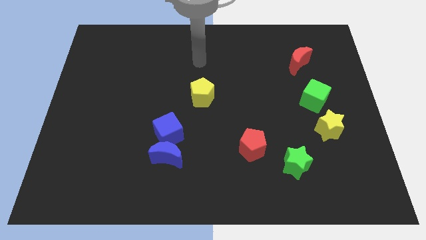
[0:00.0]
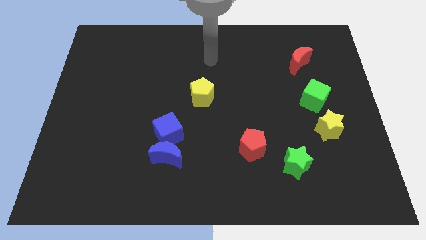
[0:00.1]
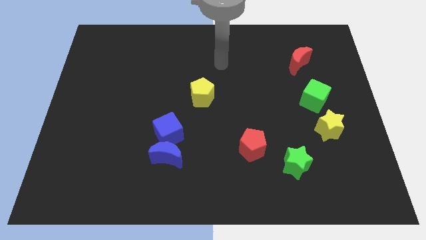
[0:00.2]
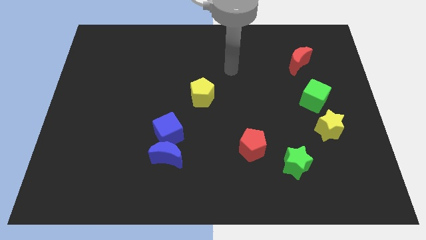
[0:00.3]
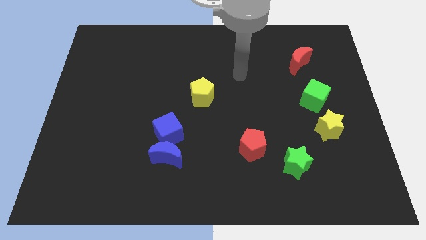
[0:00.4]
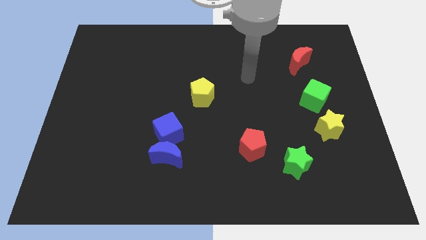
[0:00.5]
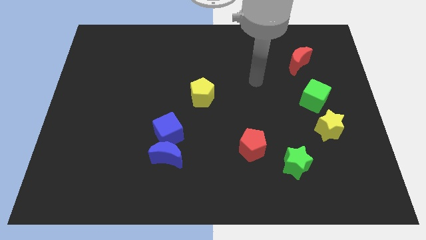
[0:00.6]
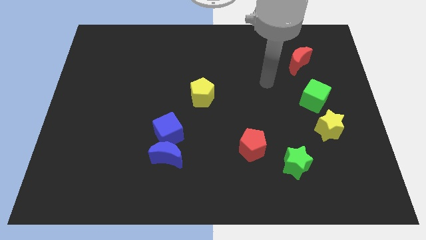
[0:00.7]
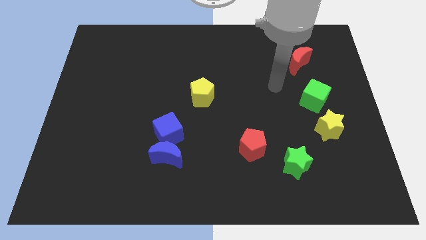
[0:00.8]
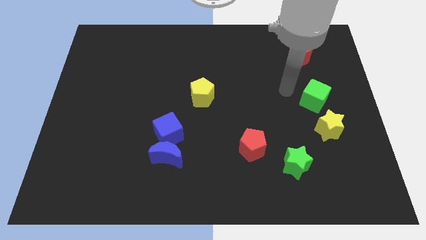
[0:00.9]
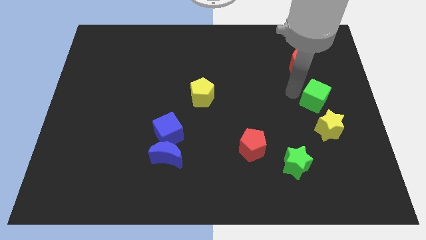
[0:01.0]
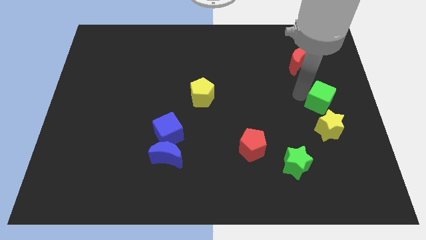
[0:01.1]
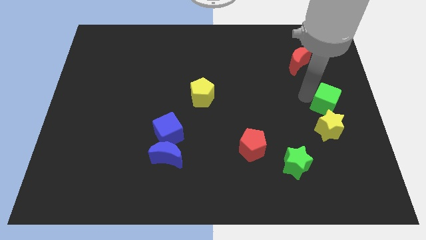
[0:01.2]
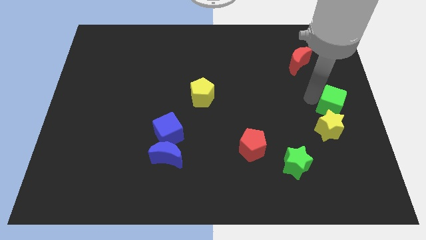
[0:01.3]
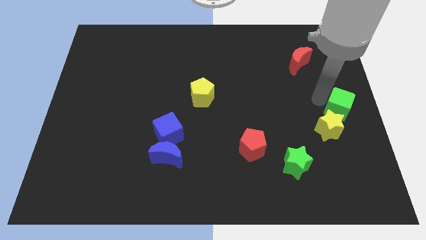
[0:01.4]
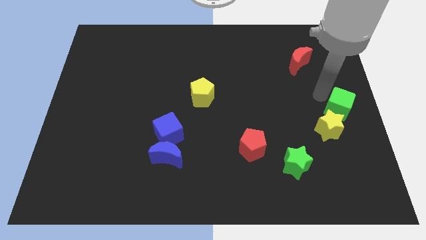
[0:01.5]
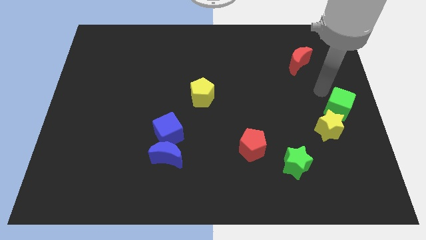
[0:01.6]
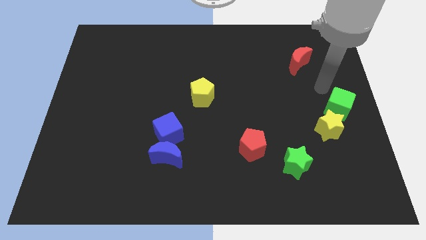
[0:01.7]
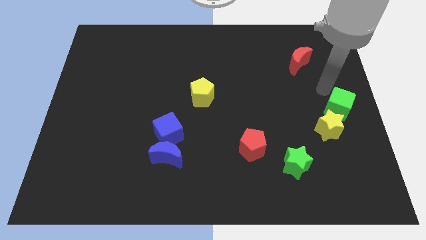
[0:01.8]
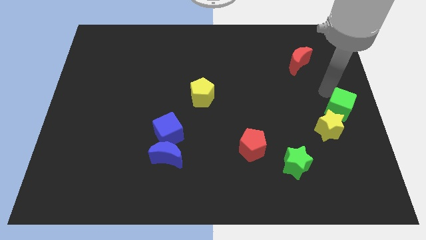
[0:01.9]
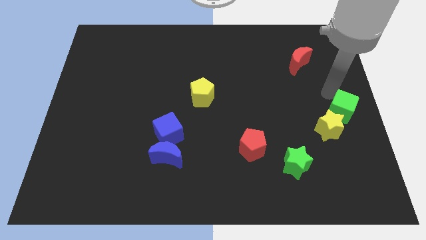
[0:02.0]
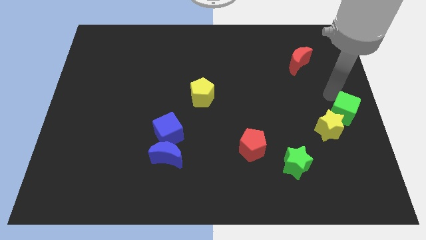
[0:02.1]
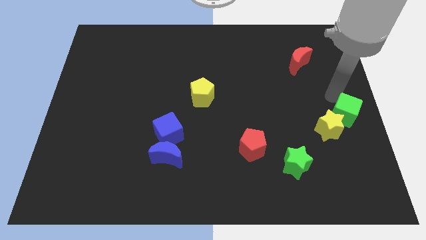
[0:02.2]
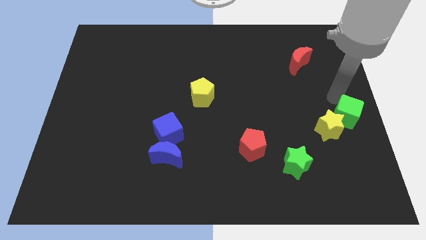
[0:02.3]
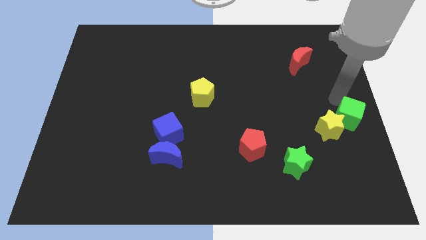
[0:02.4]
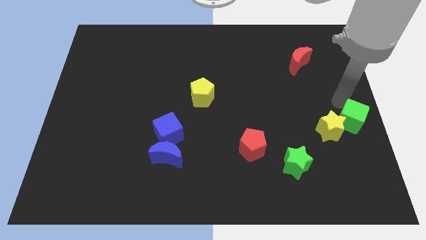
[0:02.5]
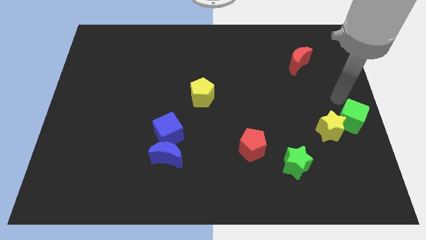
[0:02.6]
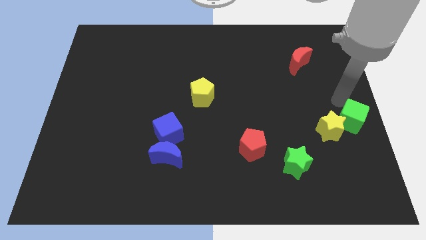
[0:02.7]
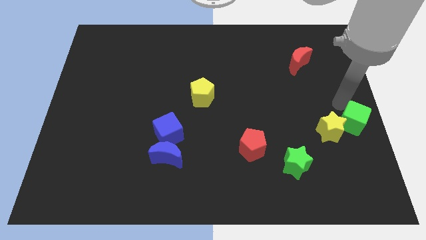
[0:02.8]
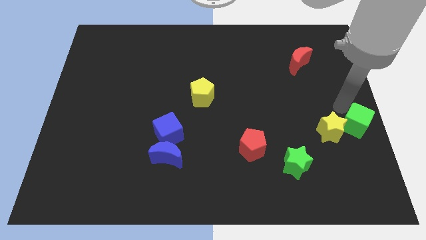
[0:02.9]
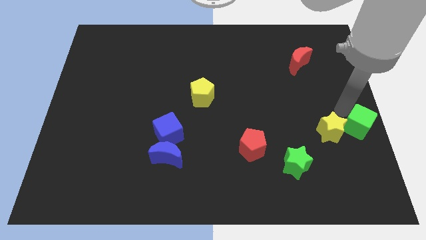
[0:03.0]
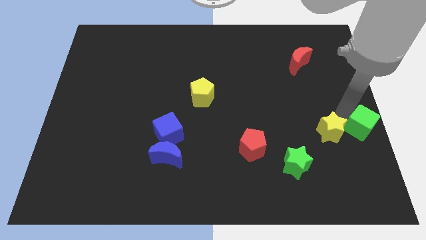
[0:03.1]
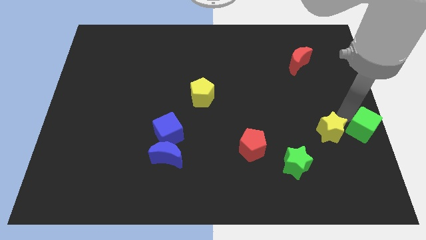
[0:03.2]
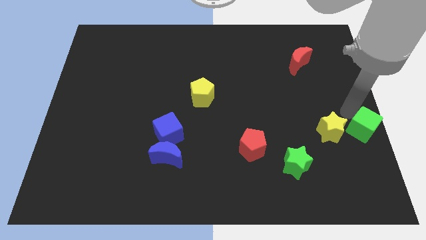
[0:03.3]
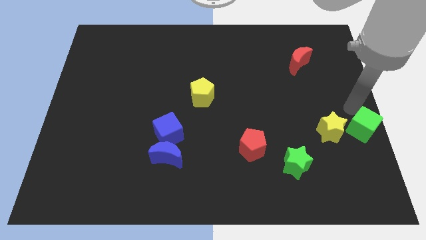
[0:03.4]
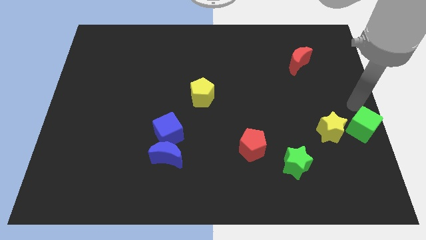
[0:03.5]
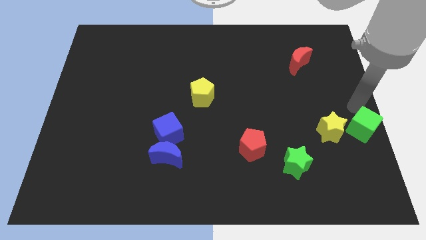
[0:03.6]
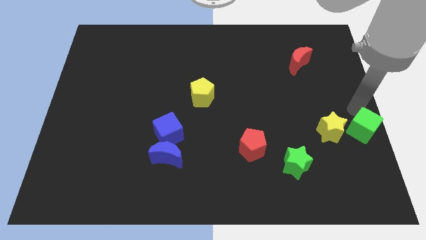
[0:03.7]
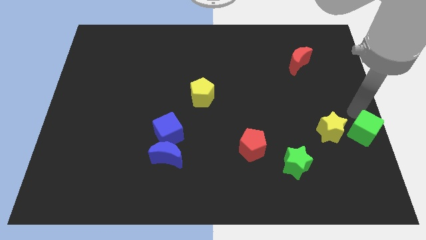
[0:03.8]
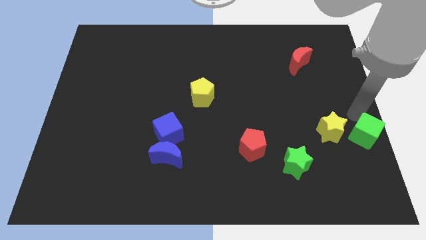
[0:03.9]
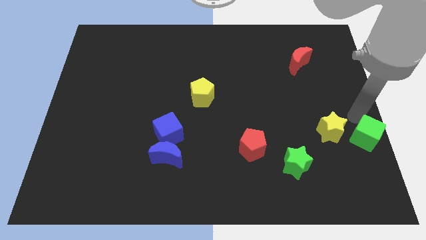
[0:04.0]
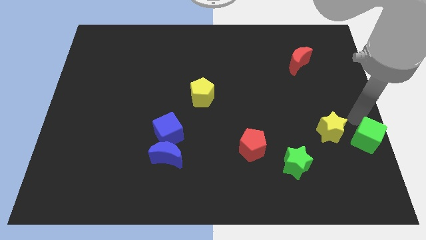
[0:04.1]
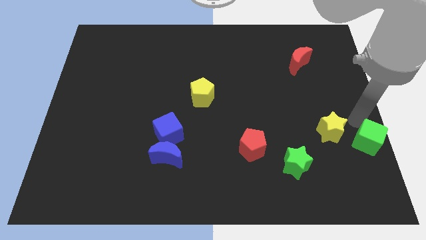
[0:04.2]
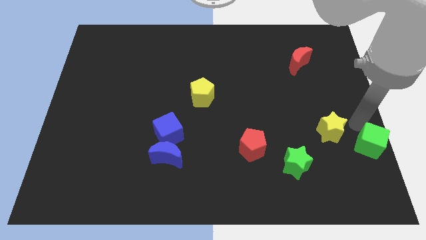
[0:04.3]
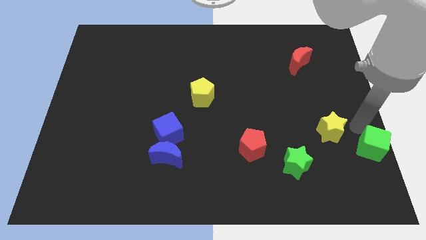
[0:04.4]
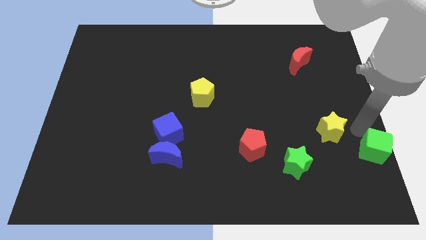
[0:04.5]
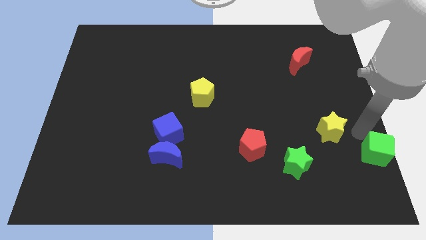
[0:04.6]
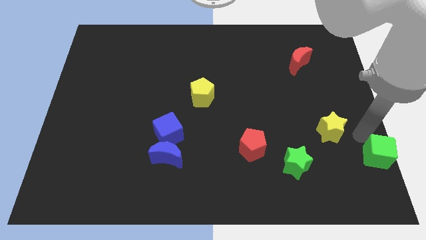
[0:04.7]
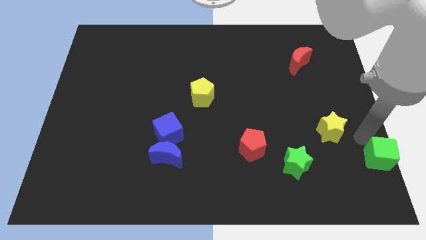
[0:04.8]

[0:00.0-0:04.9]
slide the green cube to the bottom right

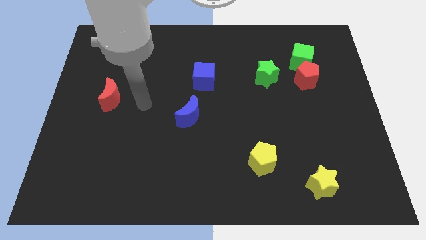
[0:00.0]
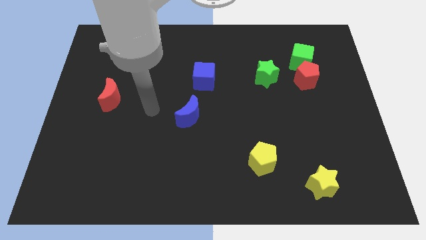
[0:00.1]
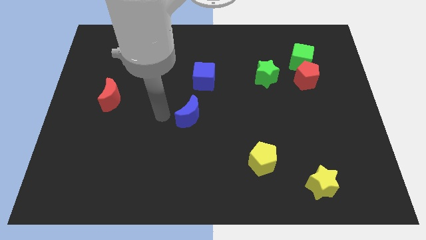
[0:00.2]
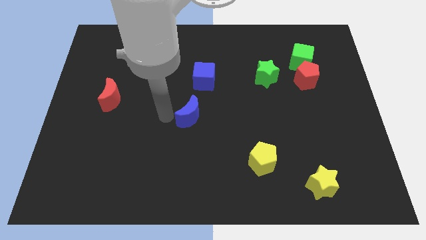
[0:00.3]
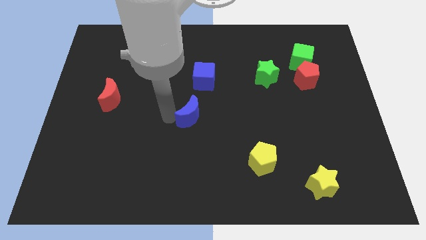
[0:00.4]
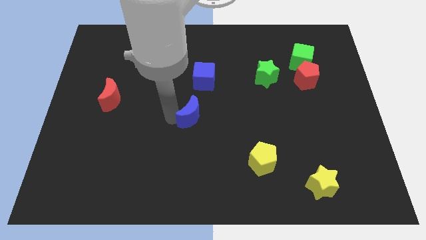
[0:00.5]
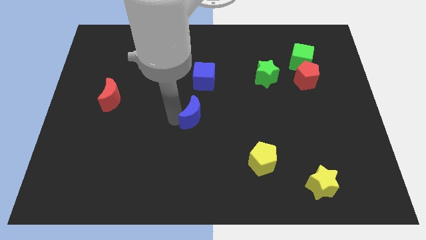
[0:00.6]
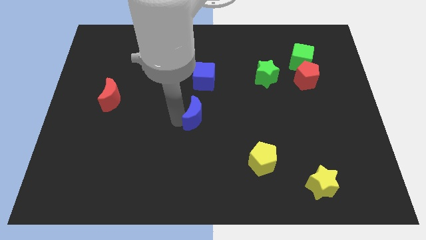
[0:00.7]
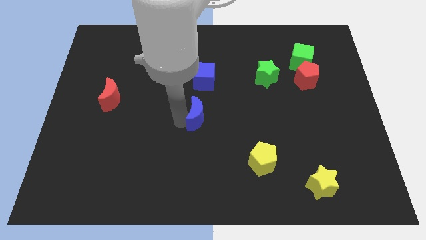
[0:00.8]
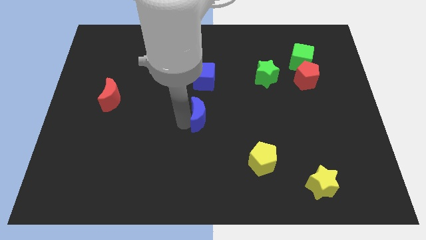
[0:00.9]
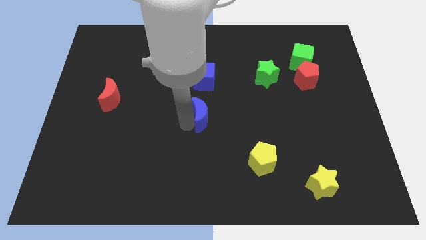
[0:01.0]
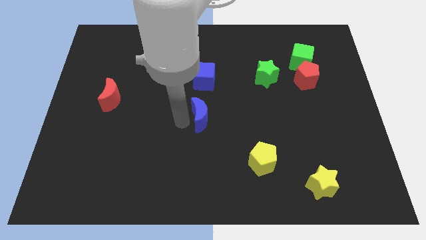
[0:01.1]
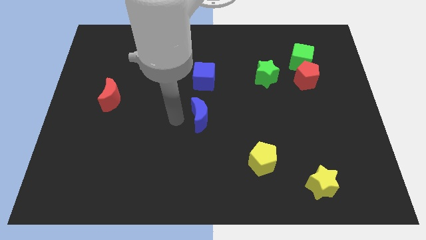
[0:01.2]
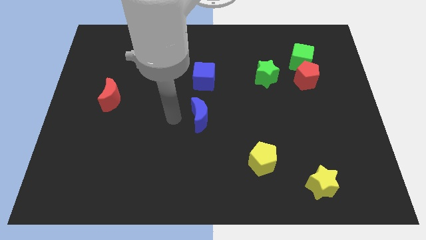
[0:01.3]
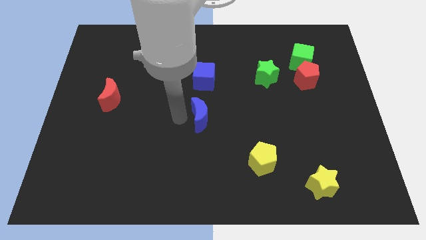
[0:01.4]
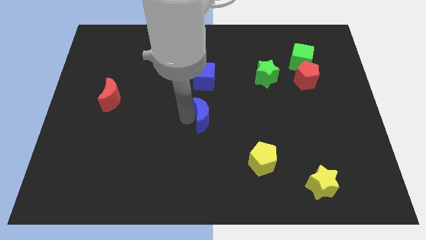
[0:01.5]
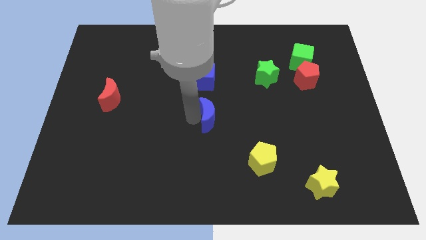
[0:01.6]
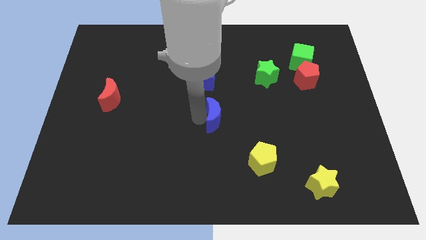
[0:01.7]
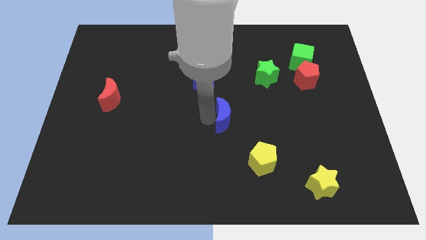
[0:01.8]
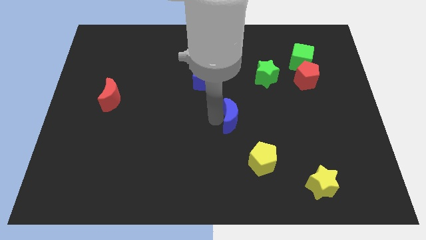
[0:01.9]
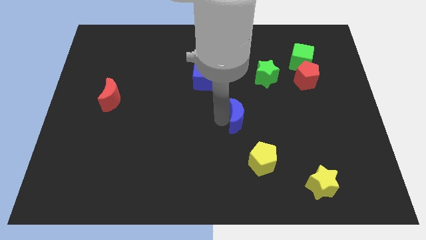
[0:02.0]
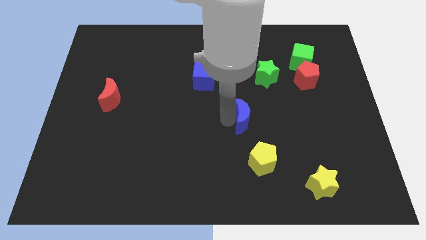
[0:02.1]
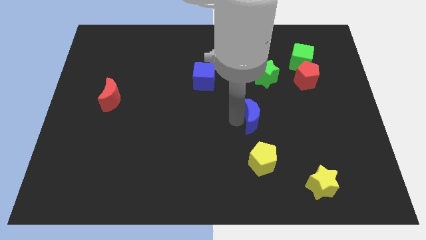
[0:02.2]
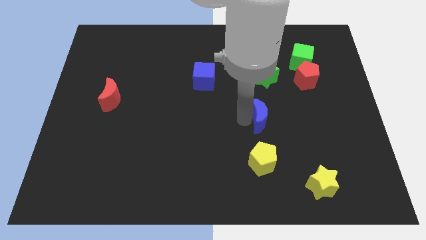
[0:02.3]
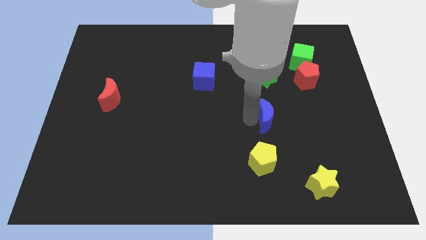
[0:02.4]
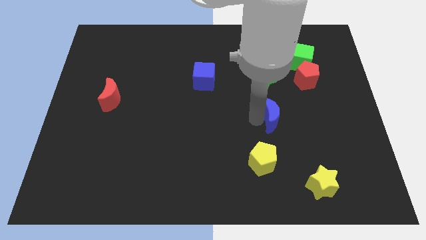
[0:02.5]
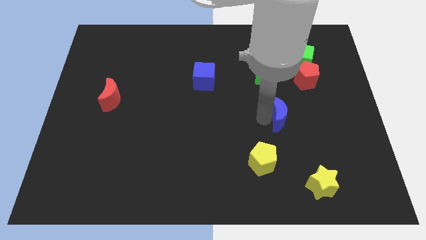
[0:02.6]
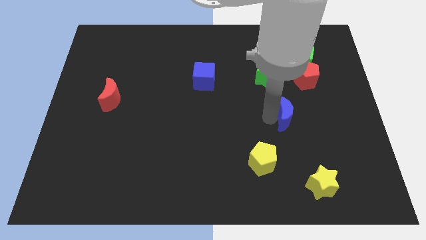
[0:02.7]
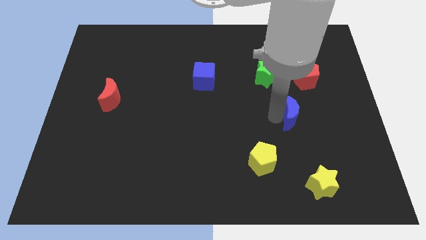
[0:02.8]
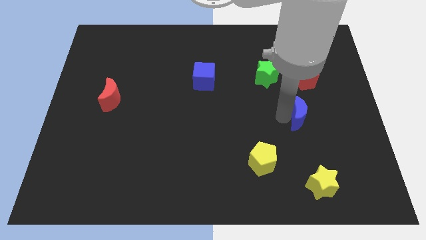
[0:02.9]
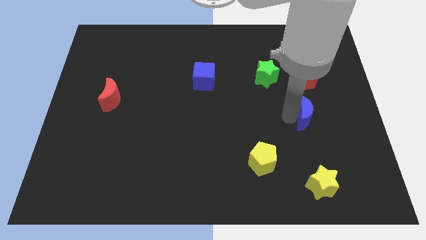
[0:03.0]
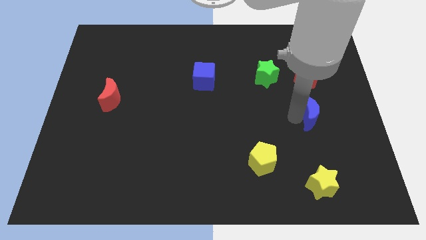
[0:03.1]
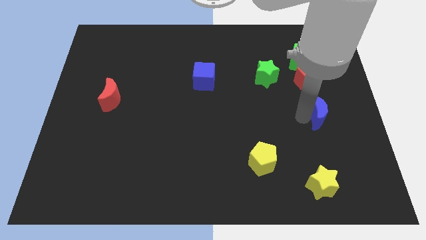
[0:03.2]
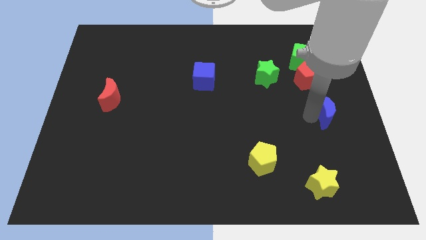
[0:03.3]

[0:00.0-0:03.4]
slide the blue moon to the center right
